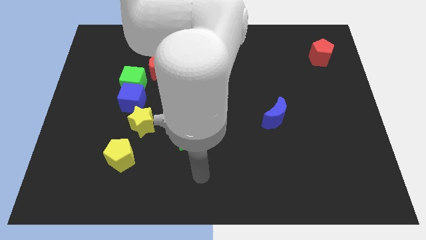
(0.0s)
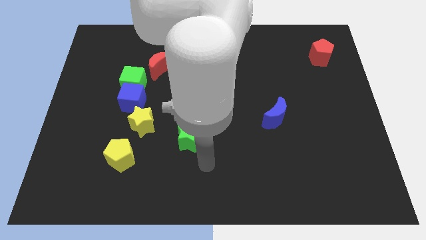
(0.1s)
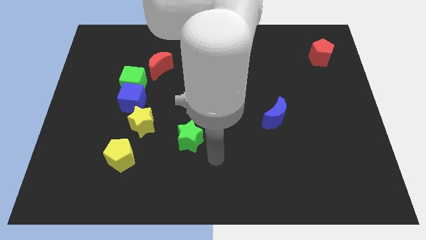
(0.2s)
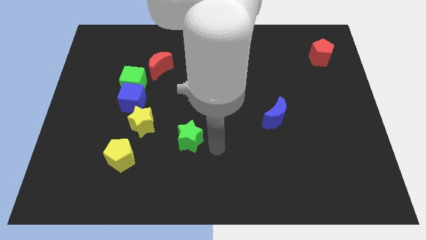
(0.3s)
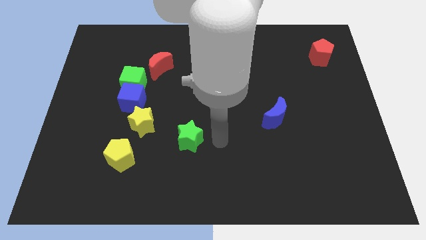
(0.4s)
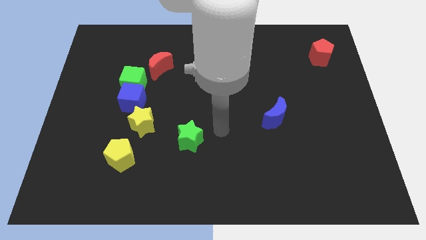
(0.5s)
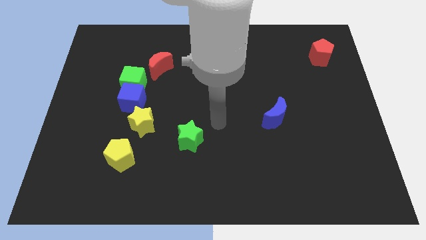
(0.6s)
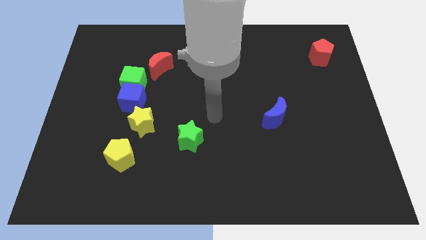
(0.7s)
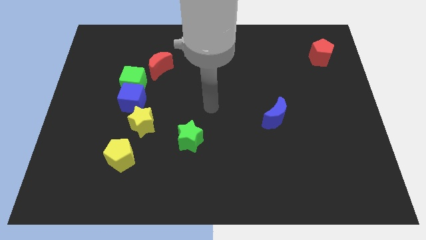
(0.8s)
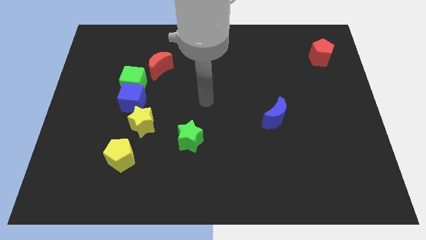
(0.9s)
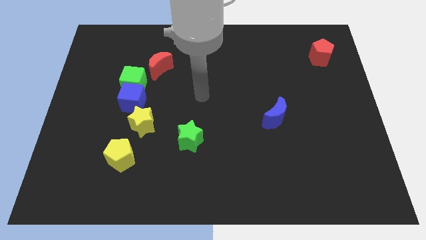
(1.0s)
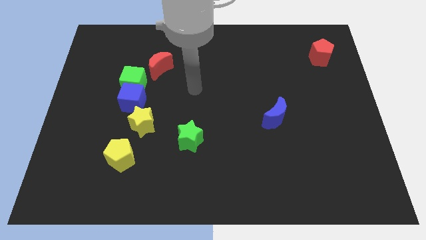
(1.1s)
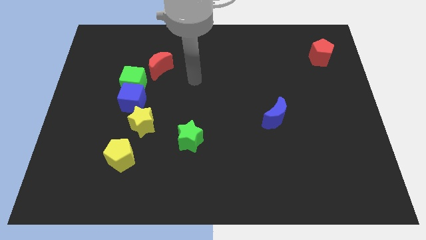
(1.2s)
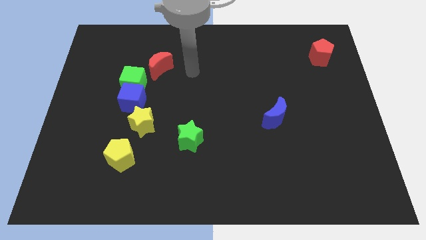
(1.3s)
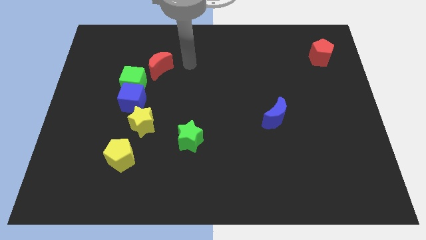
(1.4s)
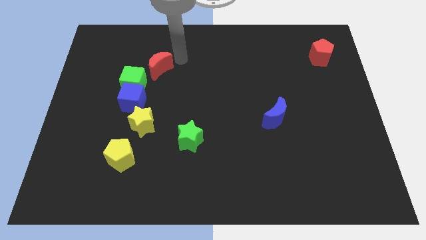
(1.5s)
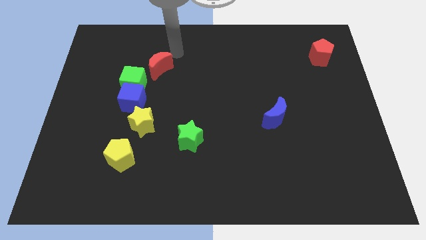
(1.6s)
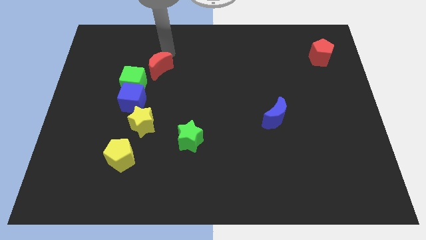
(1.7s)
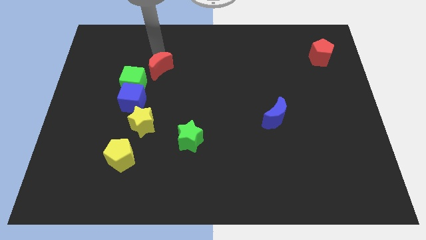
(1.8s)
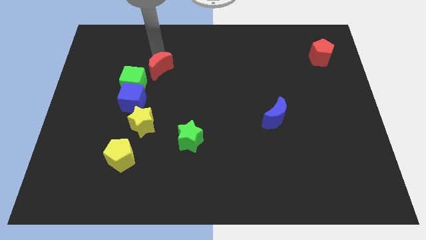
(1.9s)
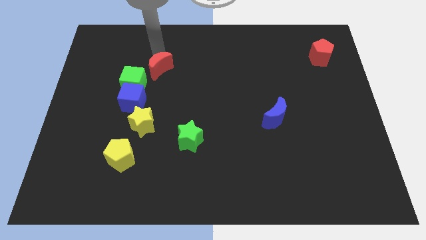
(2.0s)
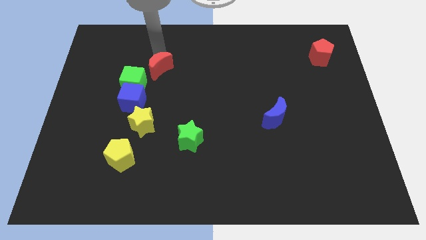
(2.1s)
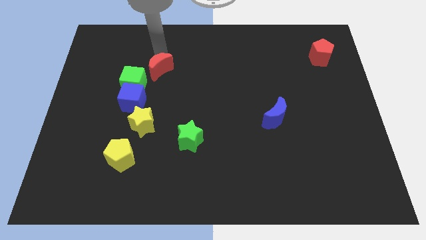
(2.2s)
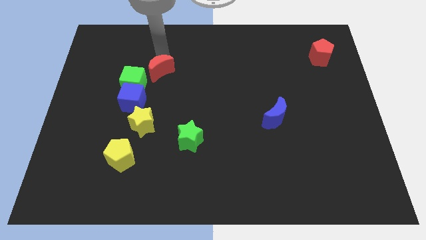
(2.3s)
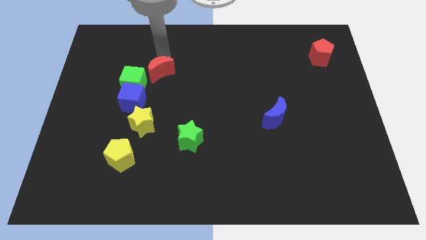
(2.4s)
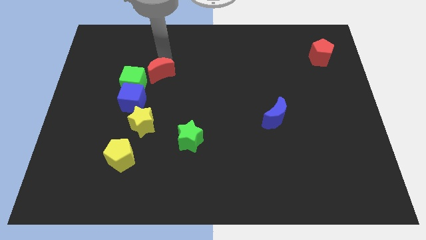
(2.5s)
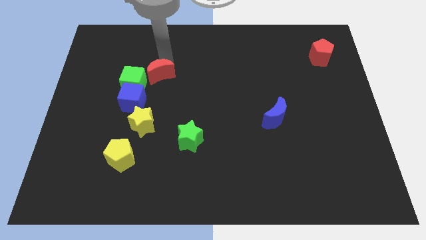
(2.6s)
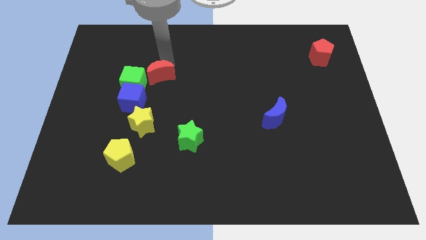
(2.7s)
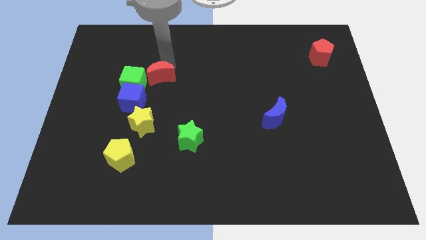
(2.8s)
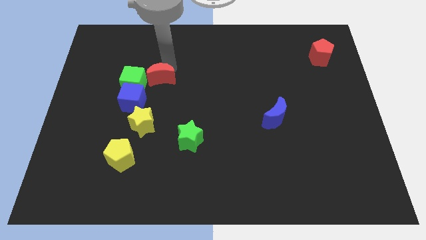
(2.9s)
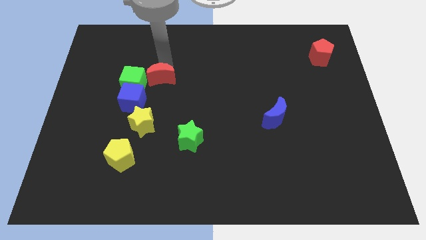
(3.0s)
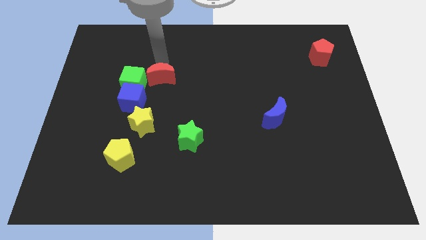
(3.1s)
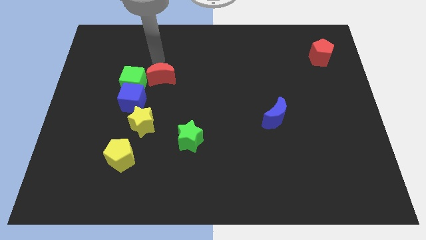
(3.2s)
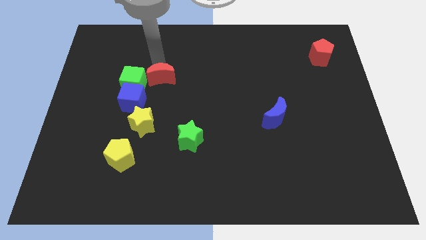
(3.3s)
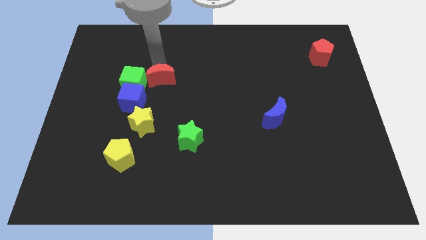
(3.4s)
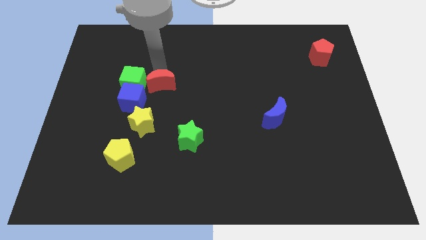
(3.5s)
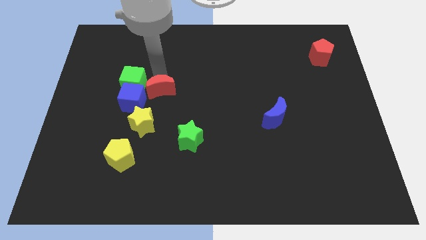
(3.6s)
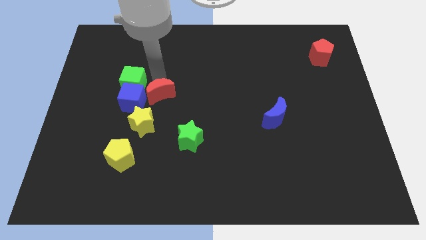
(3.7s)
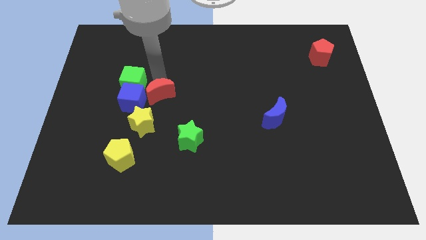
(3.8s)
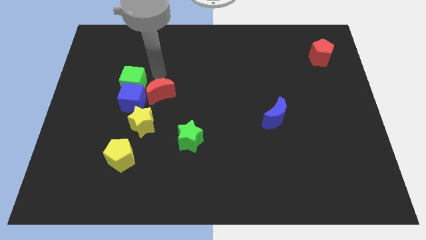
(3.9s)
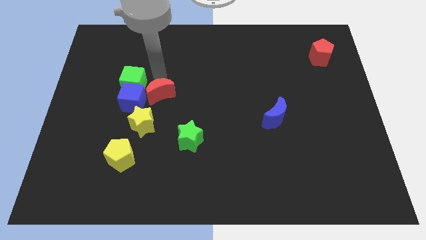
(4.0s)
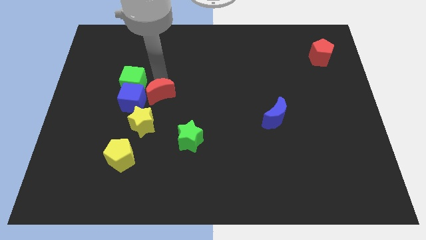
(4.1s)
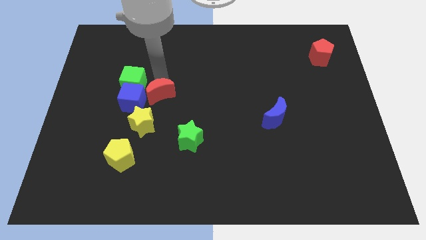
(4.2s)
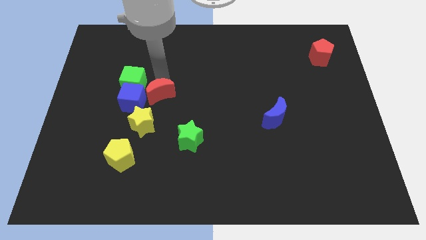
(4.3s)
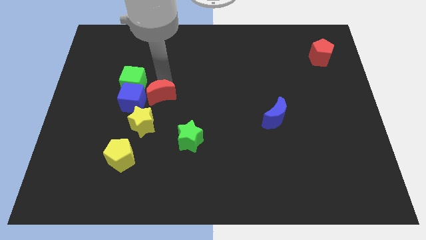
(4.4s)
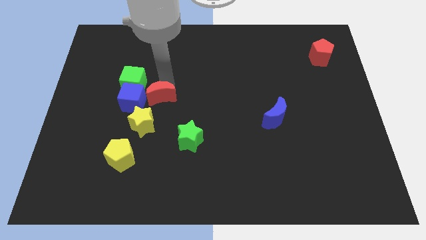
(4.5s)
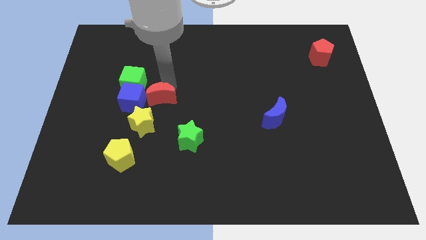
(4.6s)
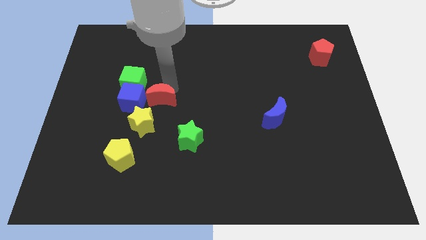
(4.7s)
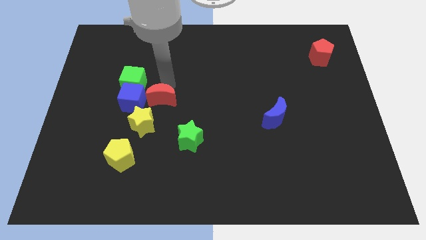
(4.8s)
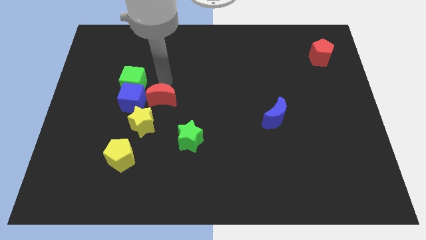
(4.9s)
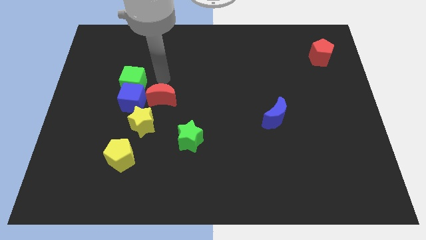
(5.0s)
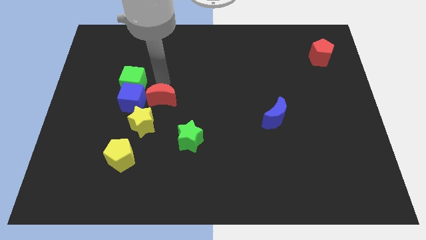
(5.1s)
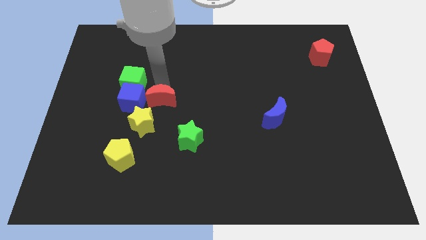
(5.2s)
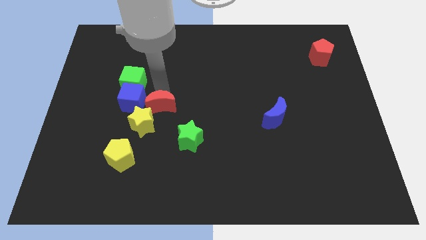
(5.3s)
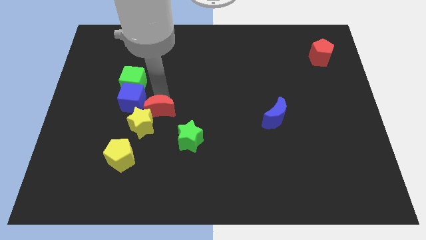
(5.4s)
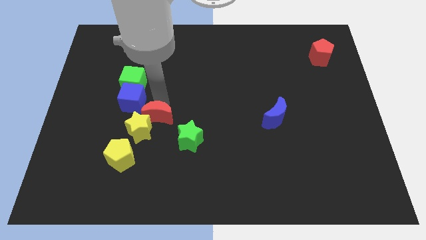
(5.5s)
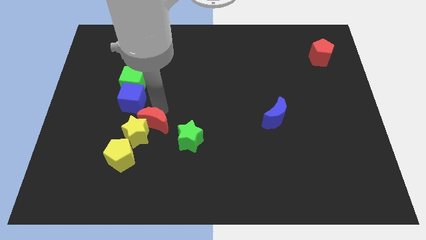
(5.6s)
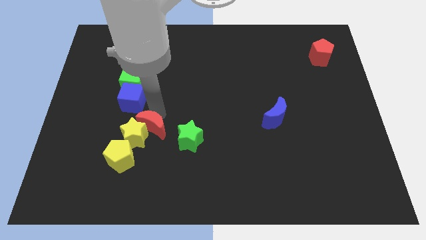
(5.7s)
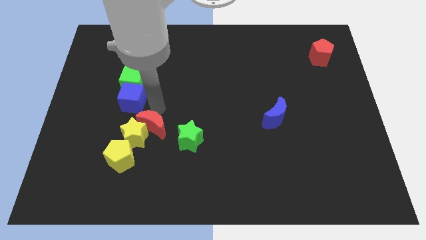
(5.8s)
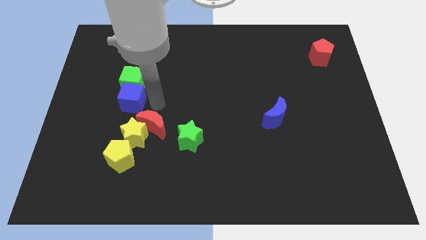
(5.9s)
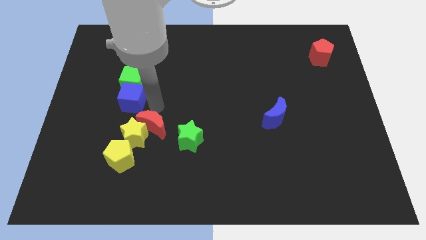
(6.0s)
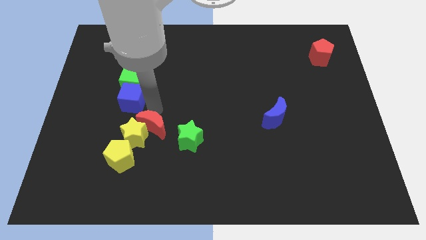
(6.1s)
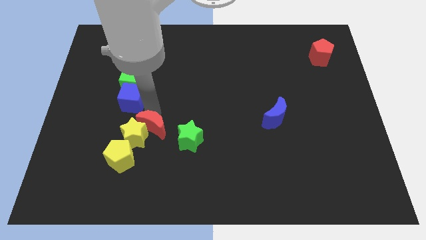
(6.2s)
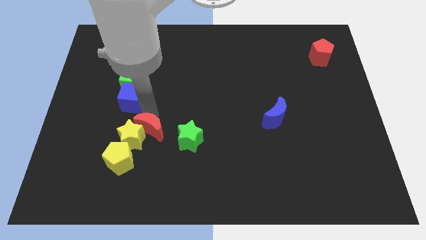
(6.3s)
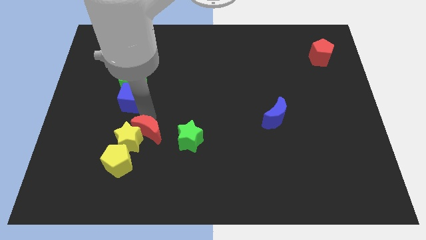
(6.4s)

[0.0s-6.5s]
slide the red moon down

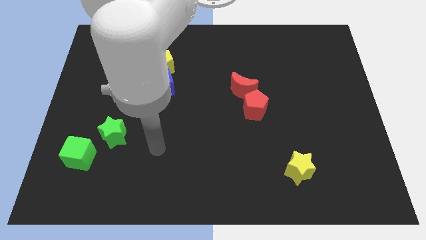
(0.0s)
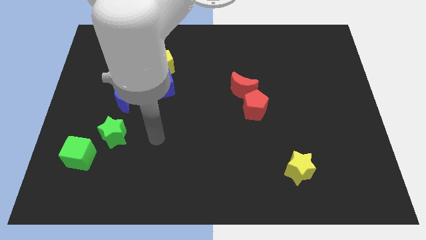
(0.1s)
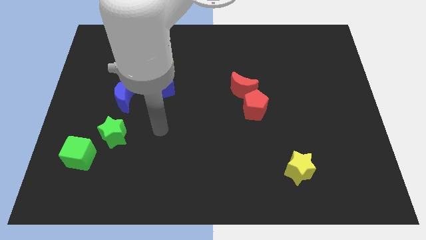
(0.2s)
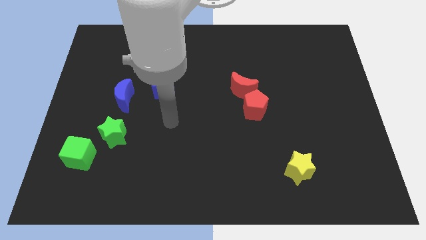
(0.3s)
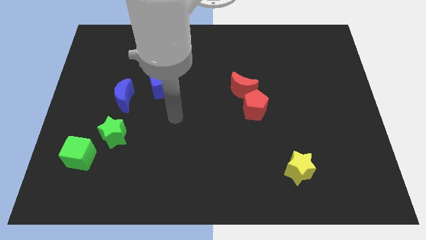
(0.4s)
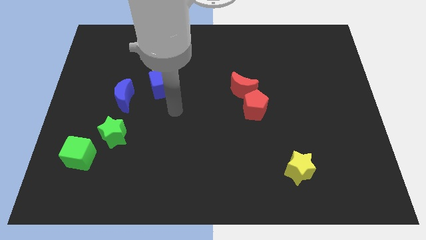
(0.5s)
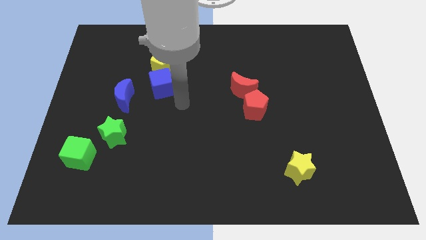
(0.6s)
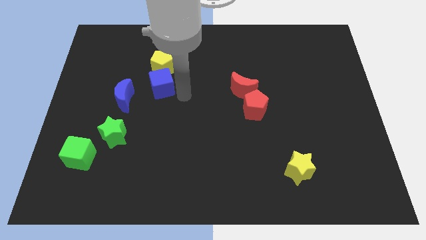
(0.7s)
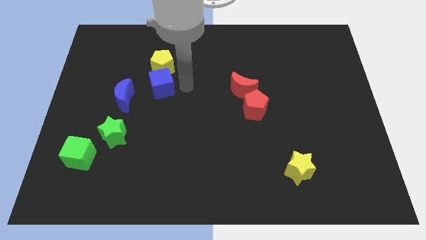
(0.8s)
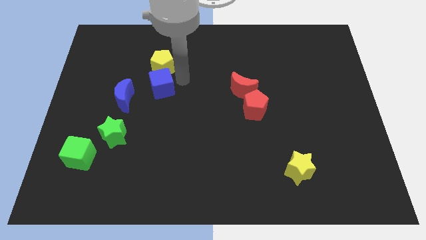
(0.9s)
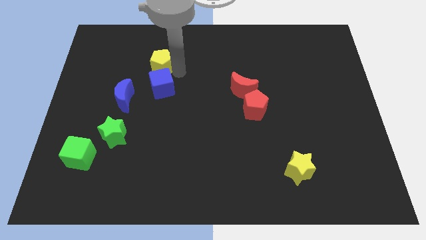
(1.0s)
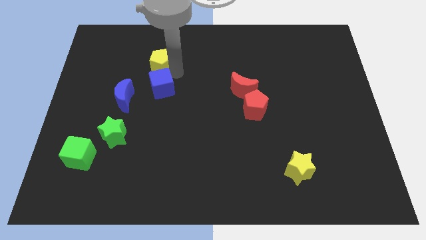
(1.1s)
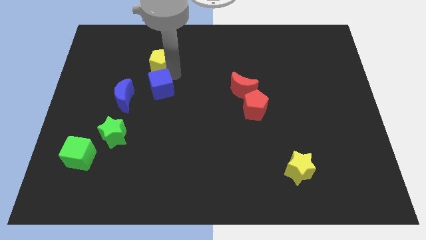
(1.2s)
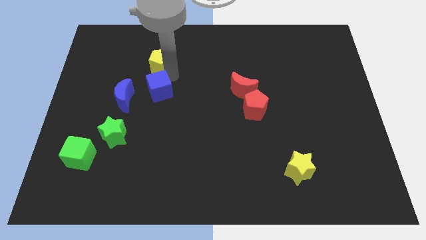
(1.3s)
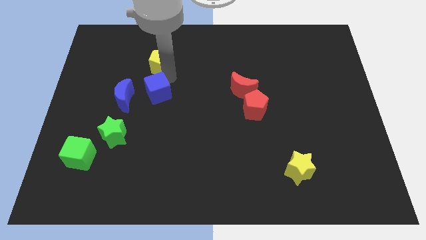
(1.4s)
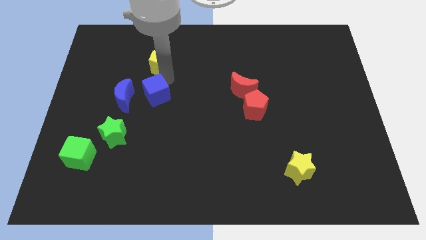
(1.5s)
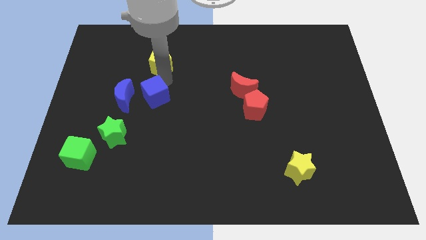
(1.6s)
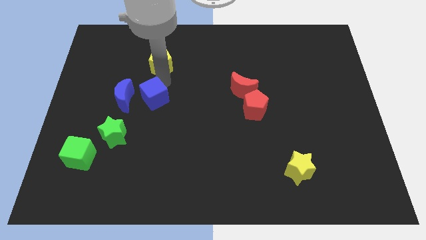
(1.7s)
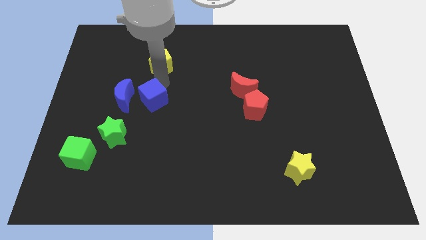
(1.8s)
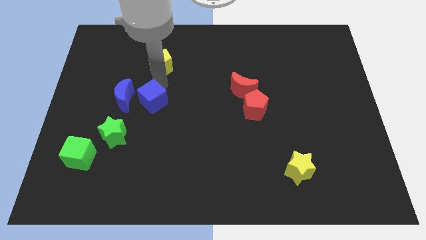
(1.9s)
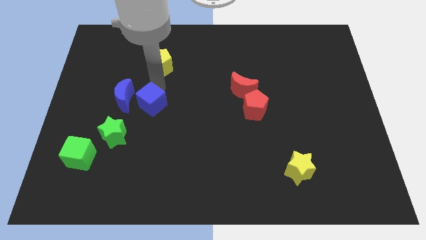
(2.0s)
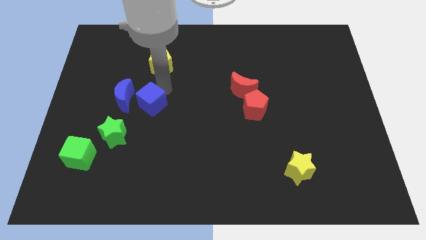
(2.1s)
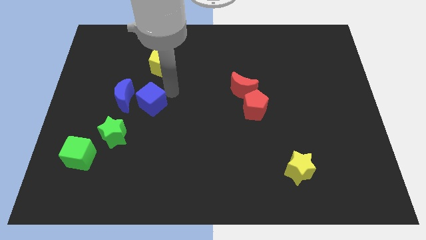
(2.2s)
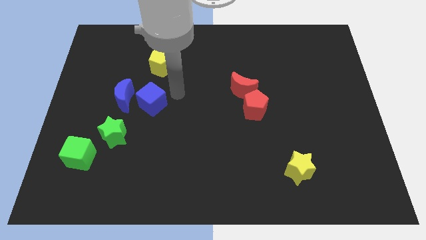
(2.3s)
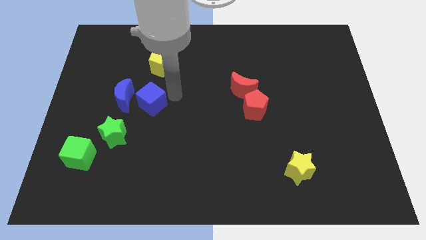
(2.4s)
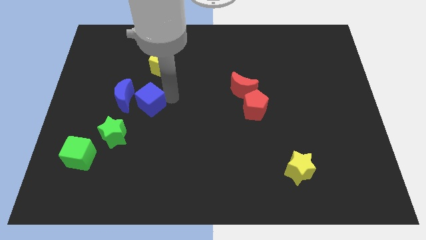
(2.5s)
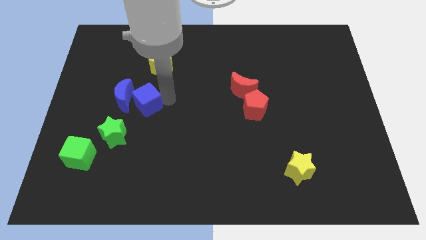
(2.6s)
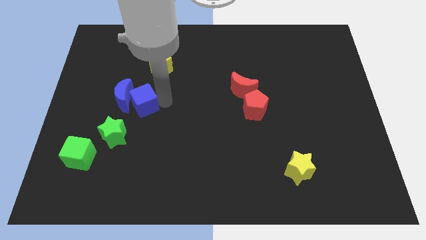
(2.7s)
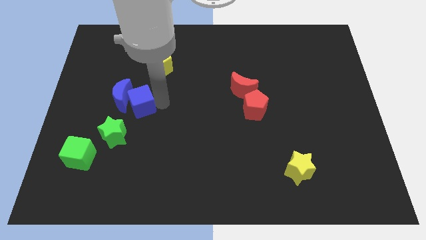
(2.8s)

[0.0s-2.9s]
push the blue cube somewhat downwards and then to the left
